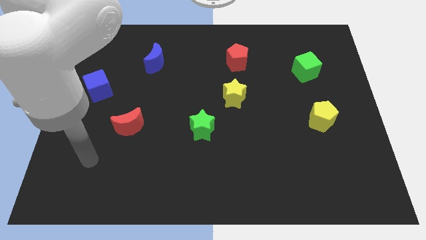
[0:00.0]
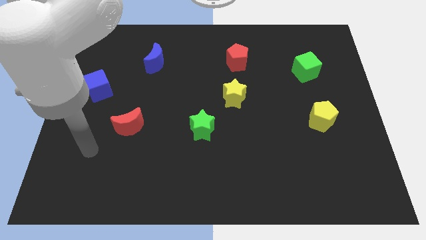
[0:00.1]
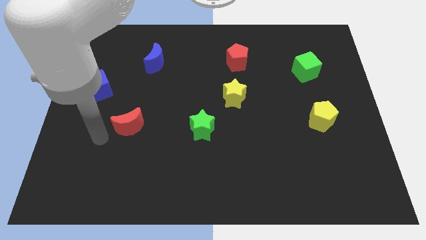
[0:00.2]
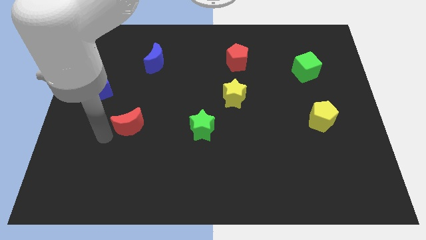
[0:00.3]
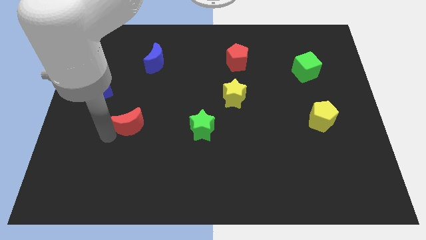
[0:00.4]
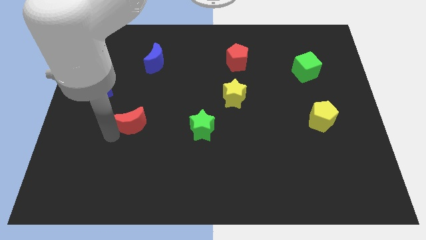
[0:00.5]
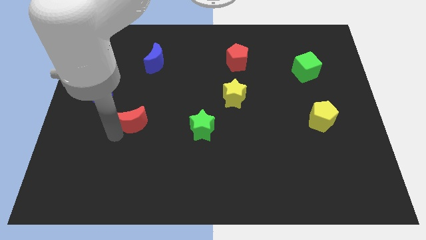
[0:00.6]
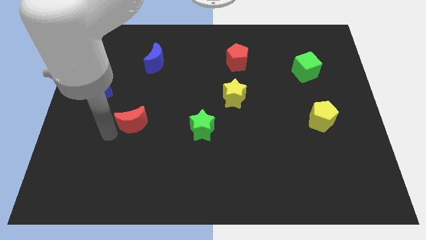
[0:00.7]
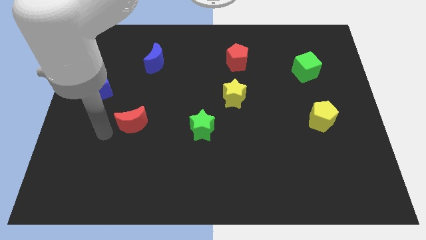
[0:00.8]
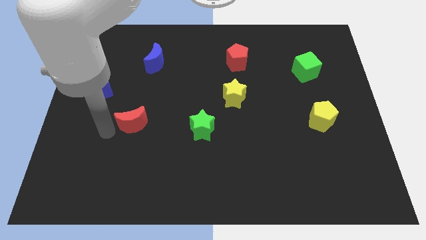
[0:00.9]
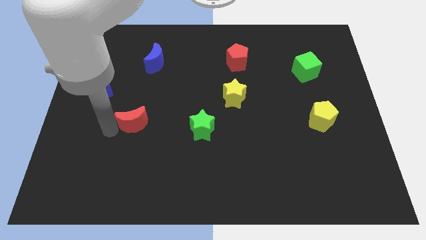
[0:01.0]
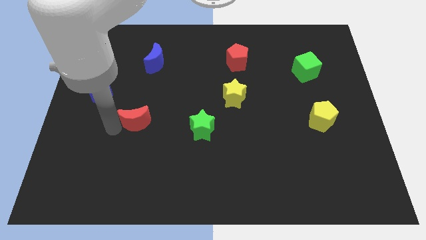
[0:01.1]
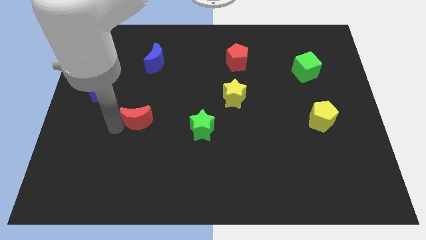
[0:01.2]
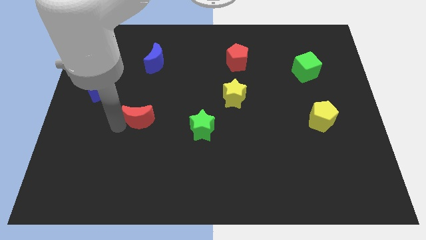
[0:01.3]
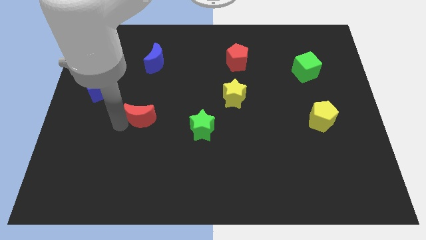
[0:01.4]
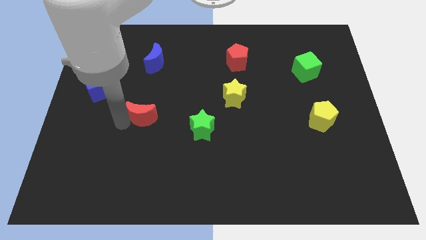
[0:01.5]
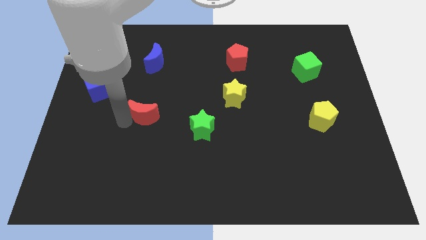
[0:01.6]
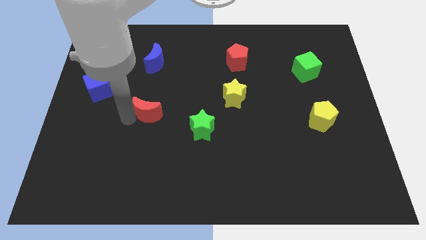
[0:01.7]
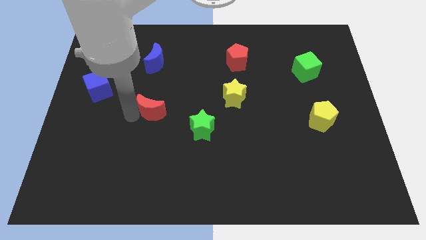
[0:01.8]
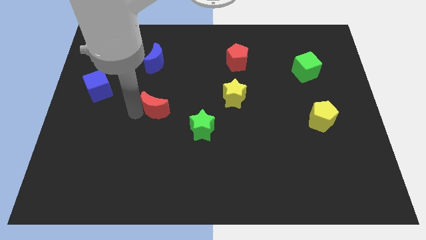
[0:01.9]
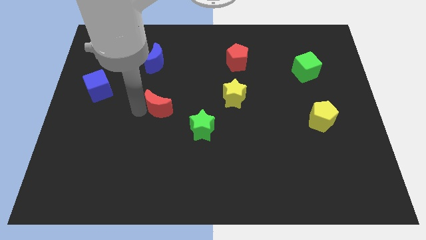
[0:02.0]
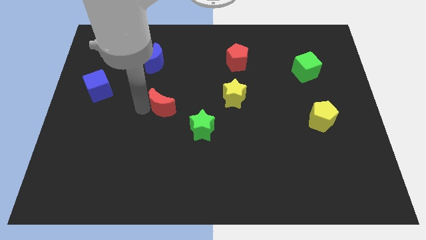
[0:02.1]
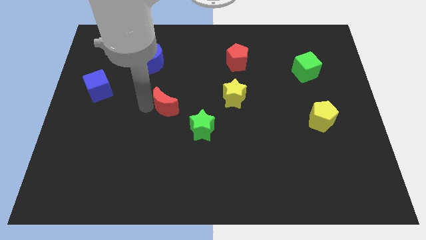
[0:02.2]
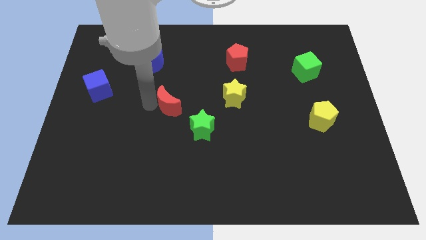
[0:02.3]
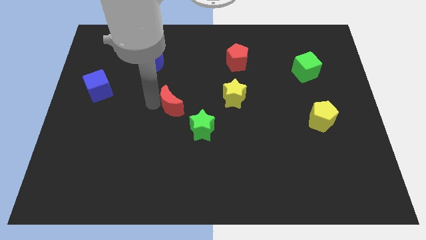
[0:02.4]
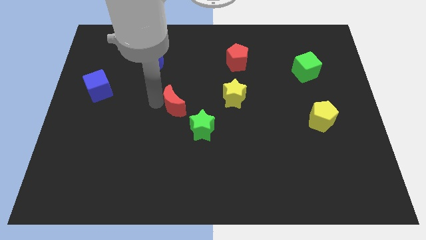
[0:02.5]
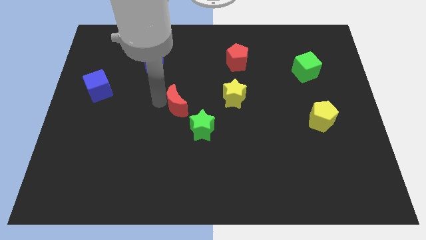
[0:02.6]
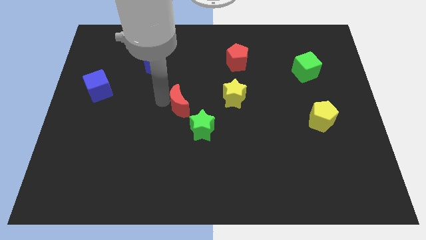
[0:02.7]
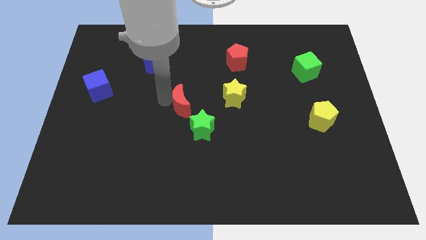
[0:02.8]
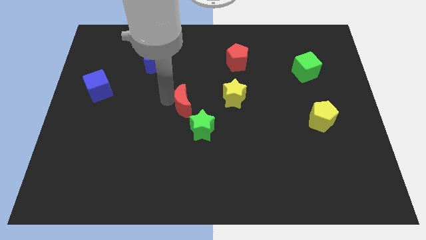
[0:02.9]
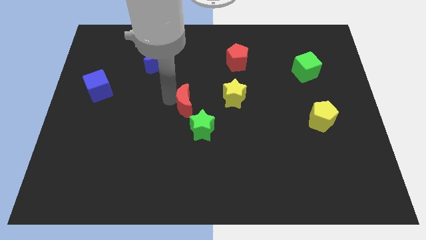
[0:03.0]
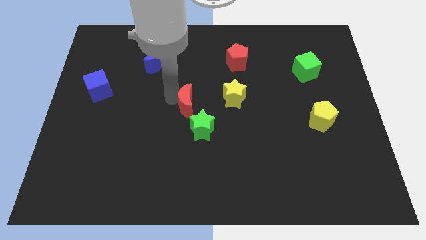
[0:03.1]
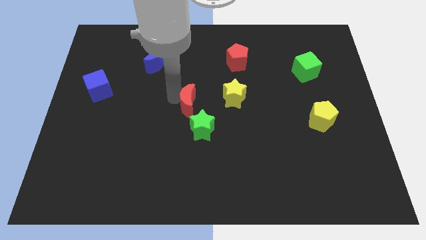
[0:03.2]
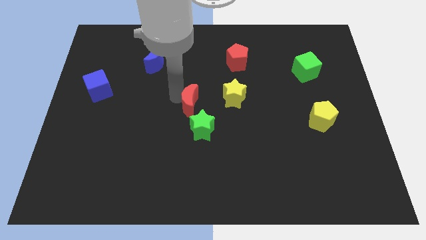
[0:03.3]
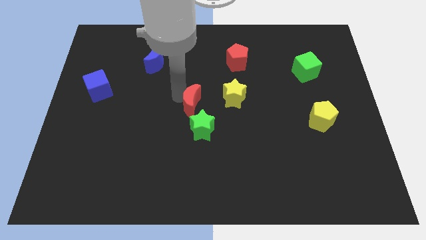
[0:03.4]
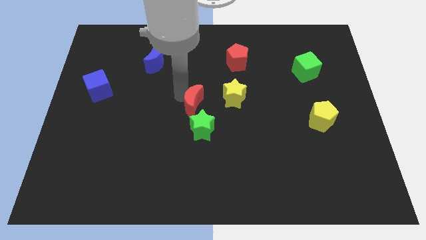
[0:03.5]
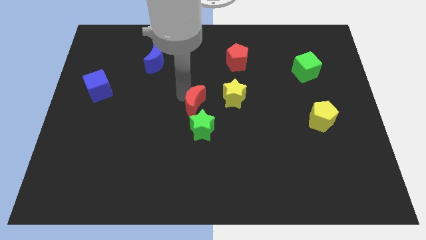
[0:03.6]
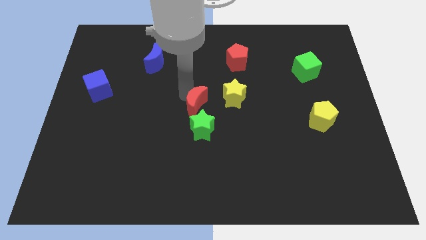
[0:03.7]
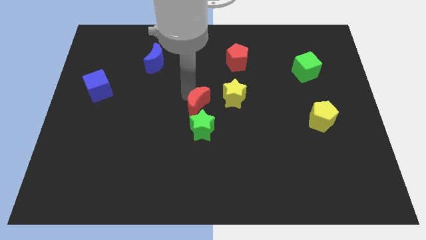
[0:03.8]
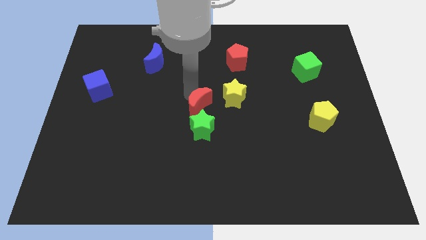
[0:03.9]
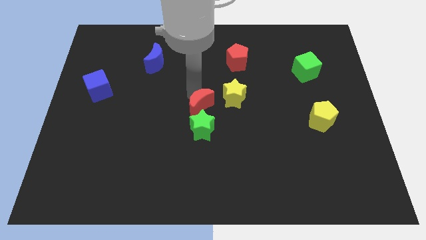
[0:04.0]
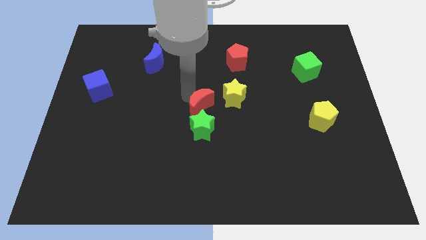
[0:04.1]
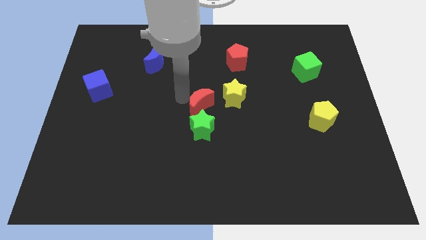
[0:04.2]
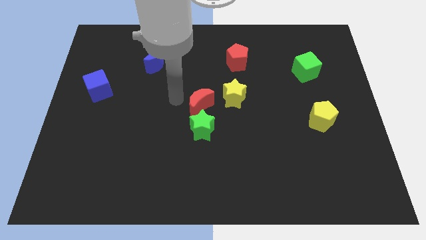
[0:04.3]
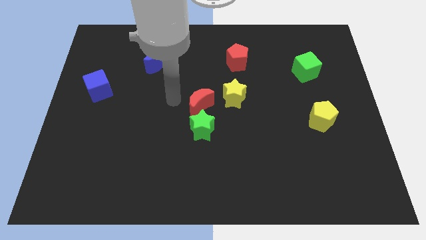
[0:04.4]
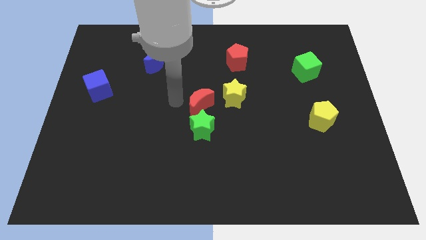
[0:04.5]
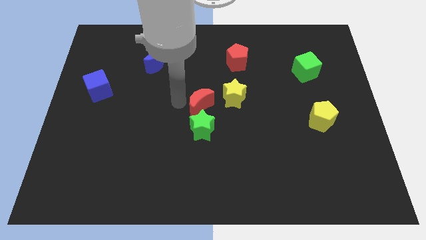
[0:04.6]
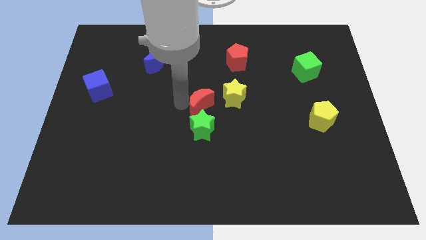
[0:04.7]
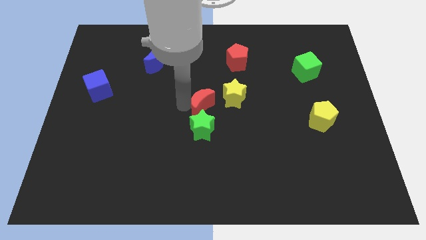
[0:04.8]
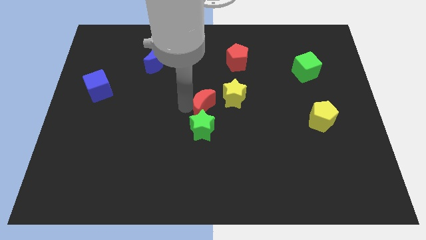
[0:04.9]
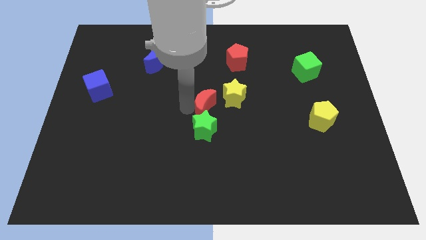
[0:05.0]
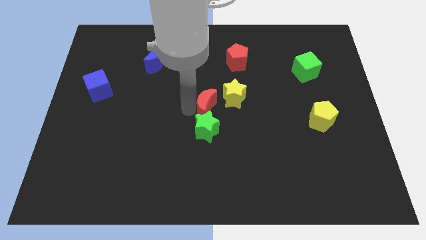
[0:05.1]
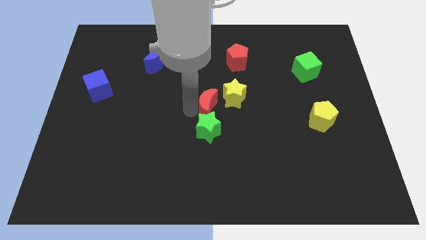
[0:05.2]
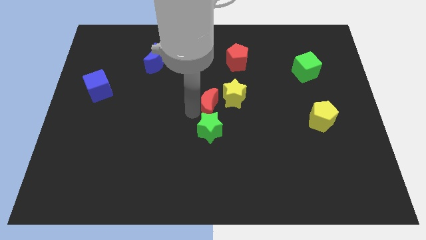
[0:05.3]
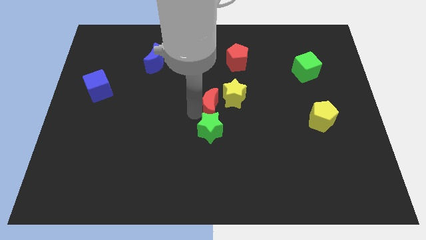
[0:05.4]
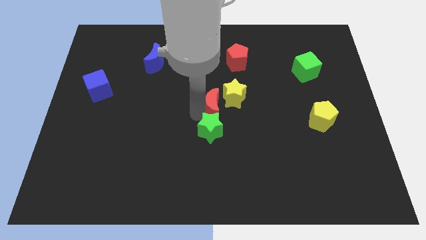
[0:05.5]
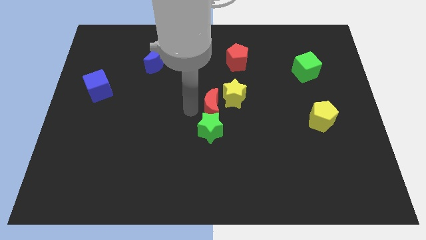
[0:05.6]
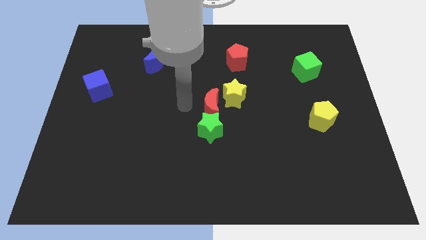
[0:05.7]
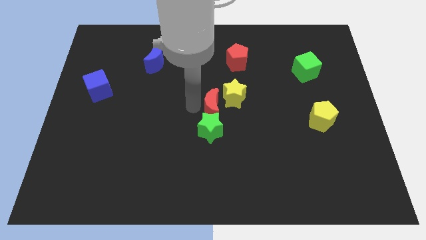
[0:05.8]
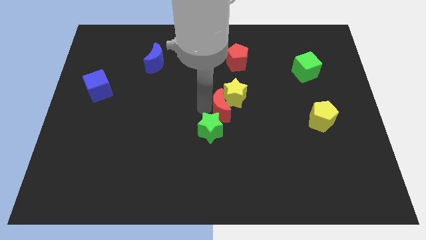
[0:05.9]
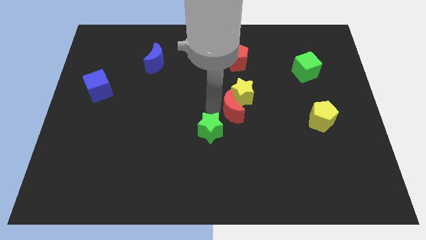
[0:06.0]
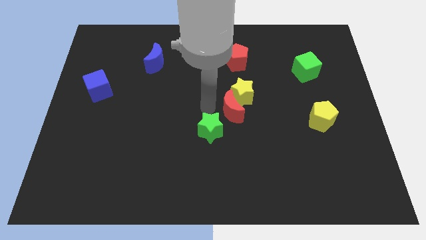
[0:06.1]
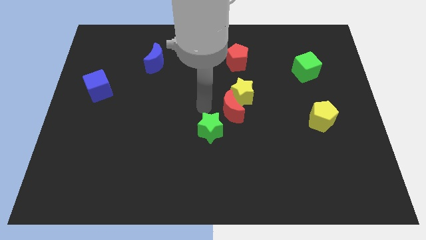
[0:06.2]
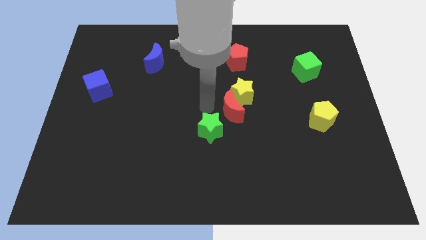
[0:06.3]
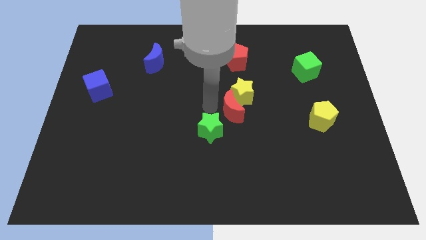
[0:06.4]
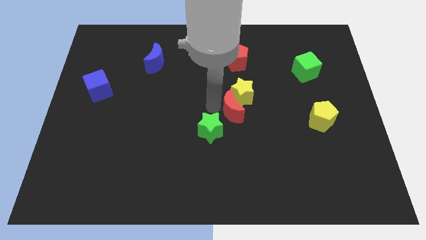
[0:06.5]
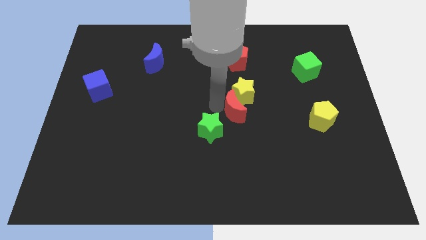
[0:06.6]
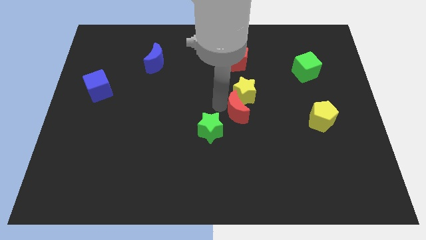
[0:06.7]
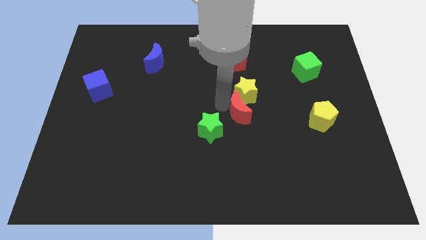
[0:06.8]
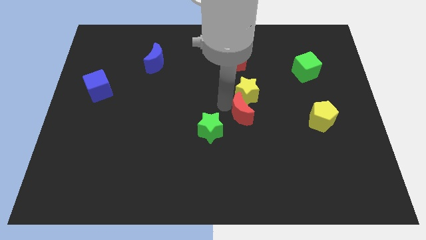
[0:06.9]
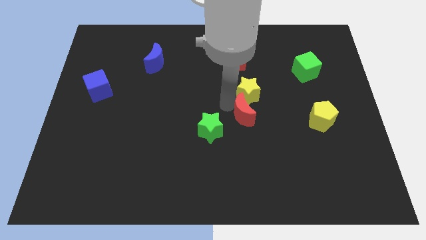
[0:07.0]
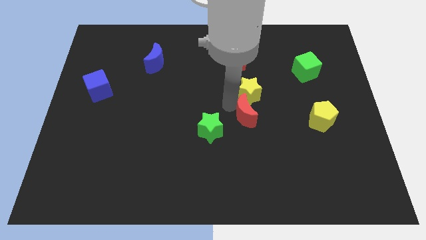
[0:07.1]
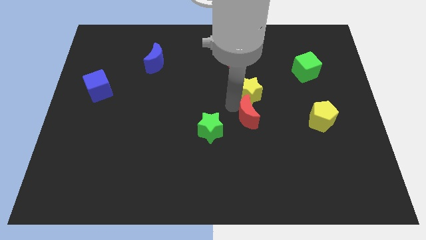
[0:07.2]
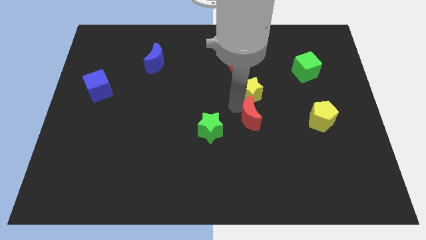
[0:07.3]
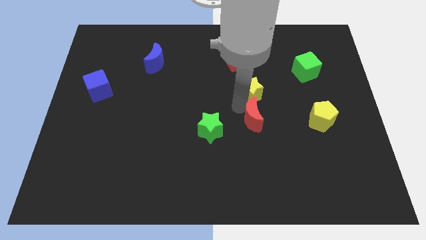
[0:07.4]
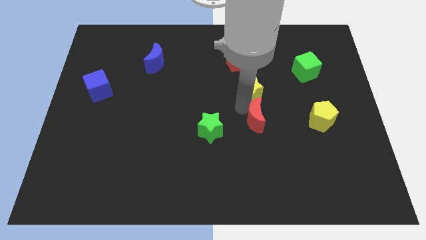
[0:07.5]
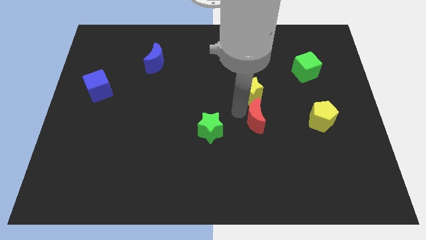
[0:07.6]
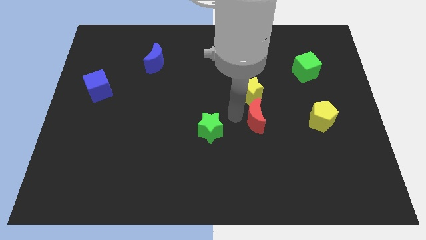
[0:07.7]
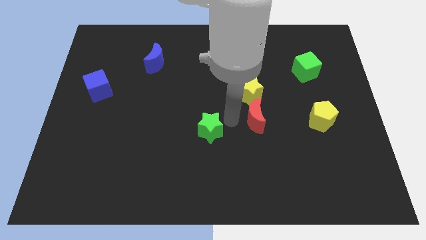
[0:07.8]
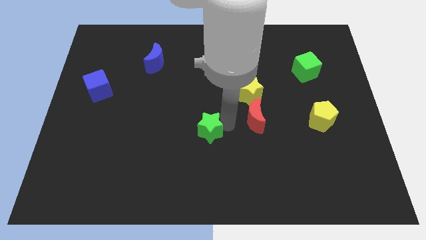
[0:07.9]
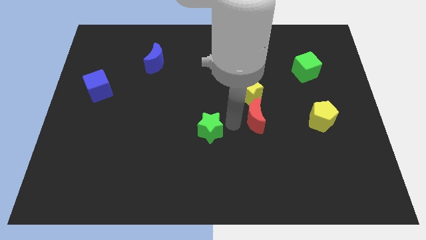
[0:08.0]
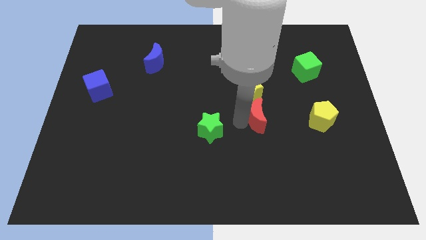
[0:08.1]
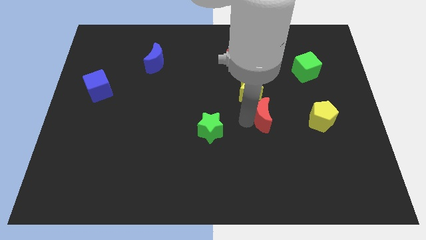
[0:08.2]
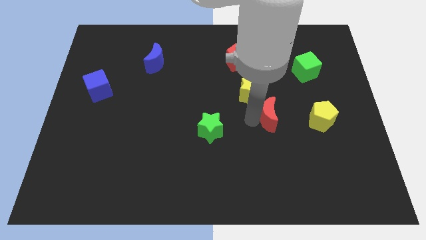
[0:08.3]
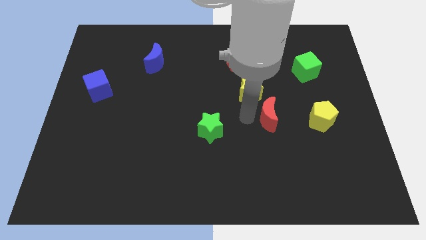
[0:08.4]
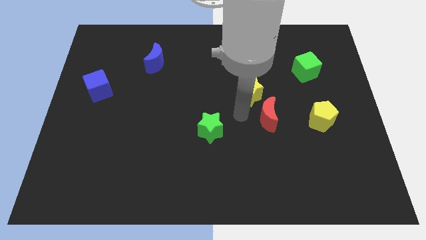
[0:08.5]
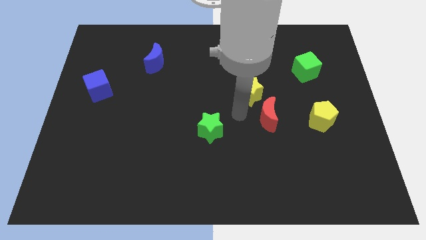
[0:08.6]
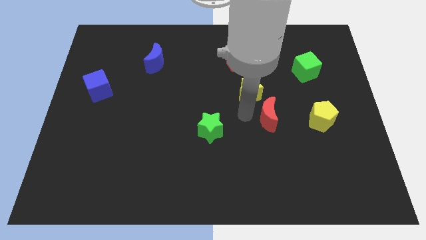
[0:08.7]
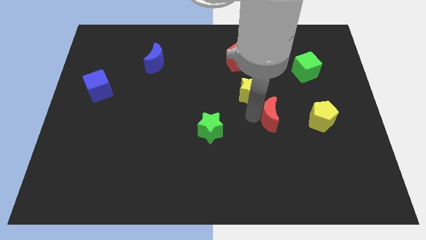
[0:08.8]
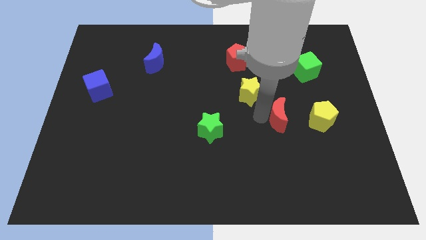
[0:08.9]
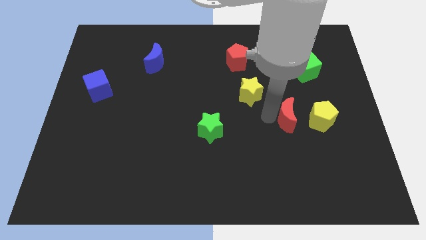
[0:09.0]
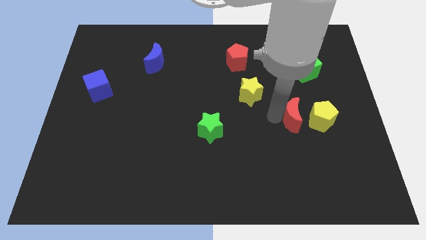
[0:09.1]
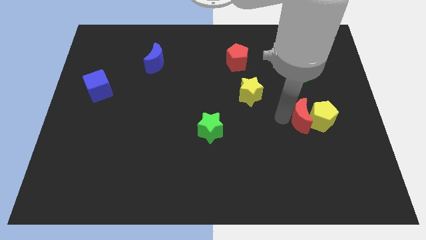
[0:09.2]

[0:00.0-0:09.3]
push the red moon close to the yellow pentagon
